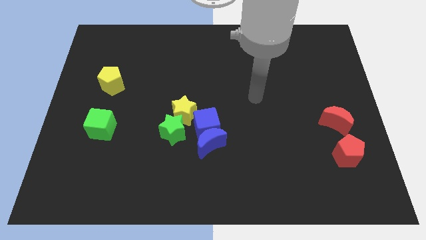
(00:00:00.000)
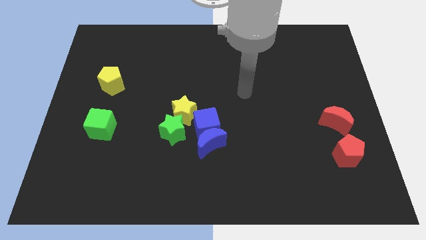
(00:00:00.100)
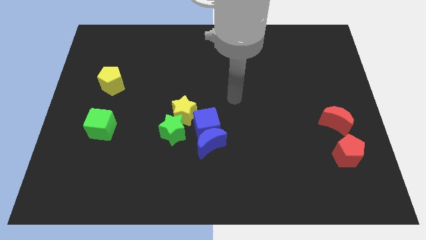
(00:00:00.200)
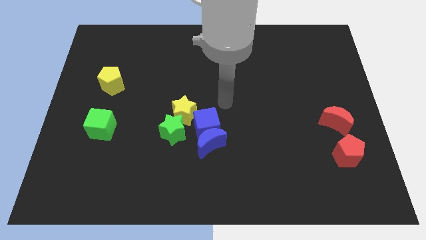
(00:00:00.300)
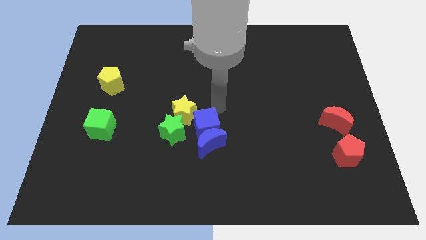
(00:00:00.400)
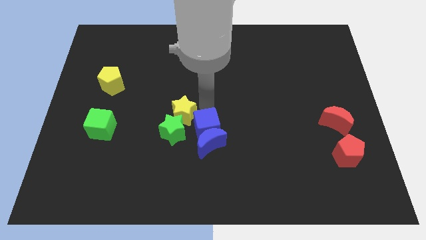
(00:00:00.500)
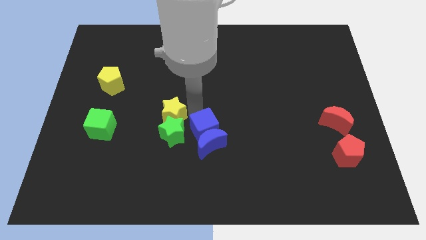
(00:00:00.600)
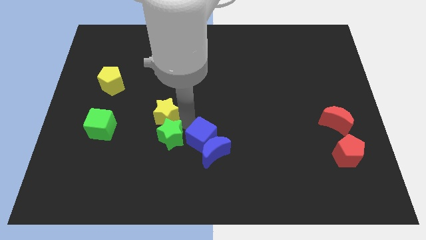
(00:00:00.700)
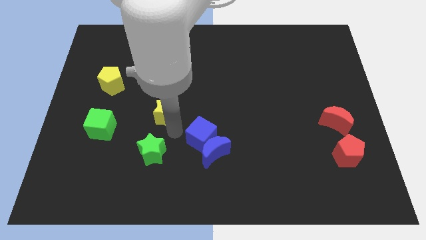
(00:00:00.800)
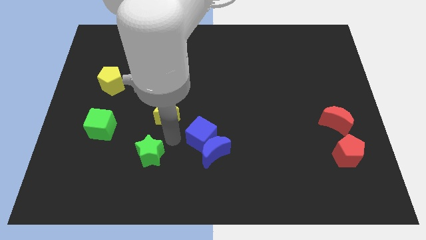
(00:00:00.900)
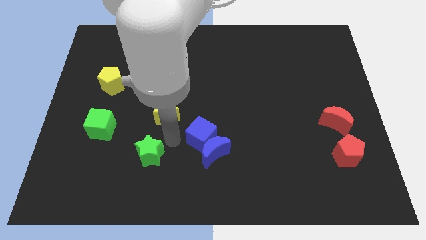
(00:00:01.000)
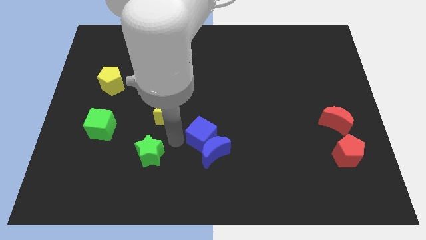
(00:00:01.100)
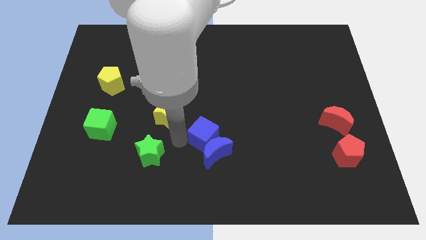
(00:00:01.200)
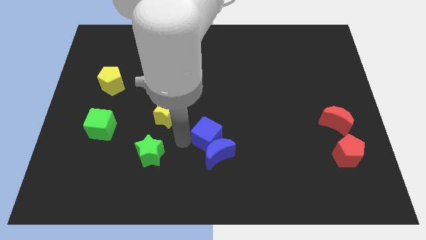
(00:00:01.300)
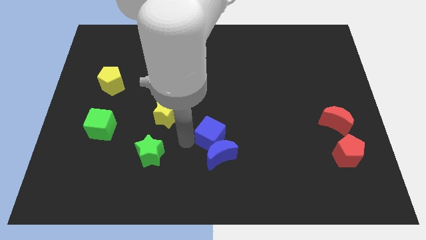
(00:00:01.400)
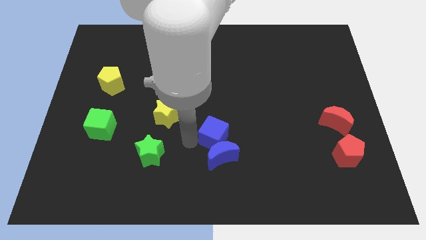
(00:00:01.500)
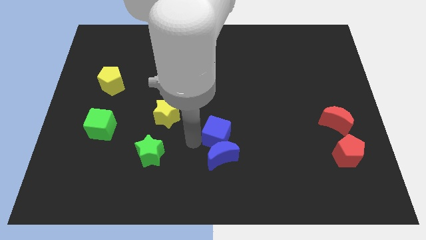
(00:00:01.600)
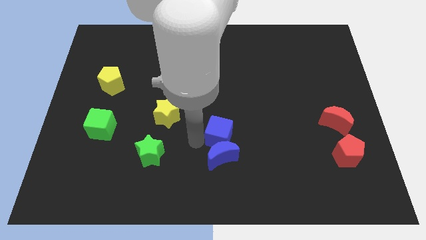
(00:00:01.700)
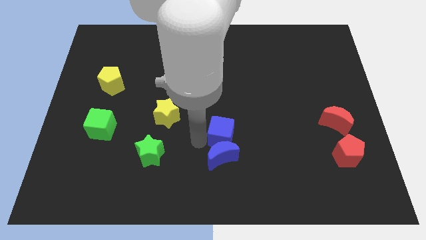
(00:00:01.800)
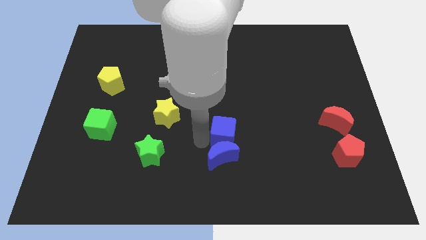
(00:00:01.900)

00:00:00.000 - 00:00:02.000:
pull the blue cube apart from the group

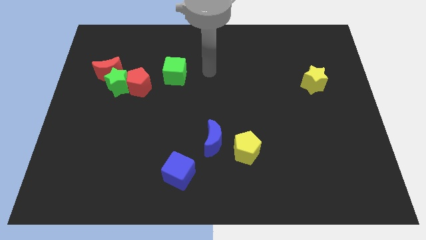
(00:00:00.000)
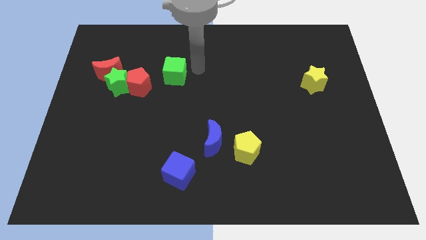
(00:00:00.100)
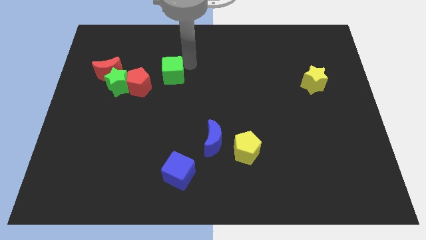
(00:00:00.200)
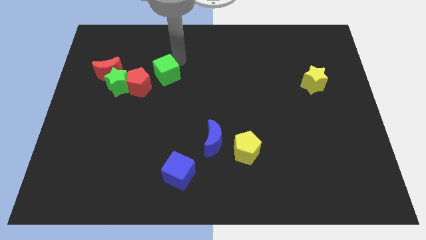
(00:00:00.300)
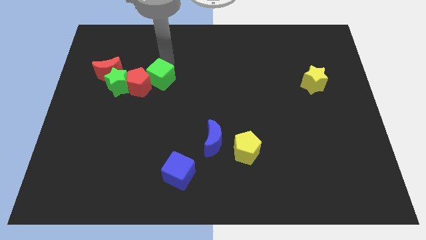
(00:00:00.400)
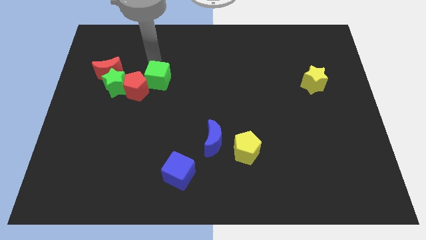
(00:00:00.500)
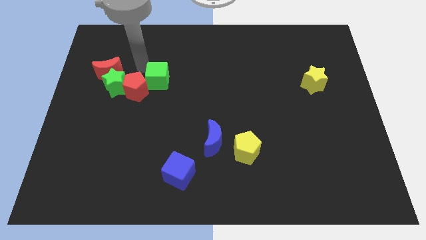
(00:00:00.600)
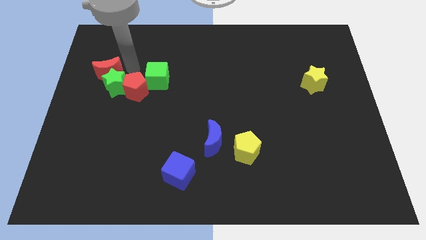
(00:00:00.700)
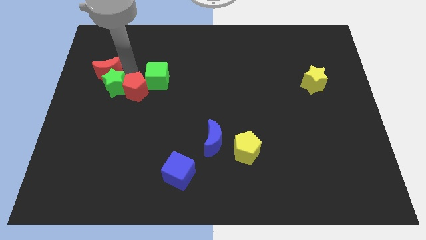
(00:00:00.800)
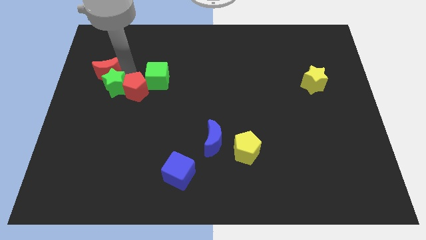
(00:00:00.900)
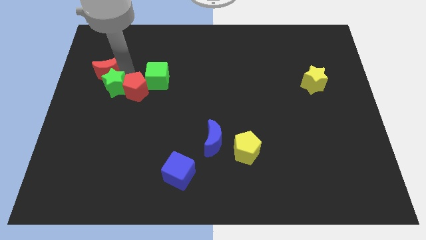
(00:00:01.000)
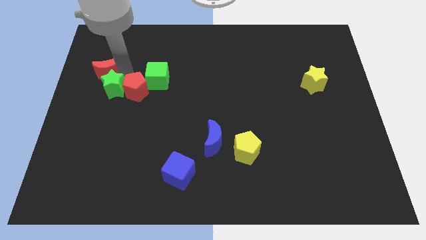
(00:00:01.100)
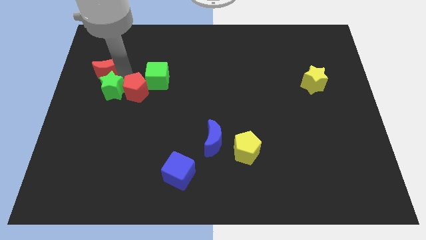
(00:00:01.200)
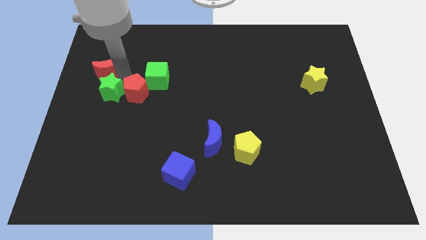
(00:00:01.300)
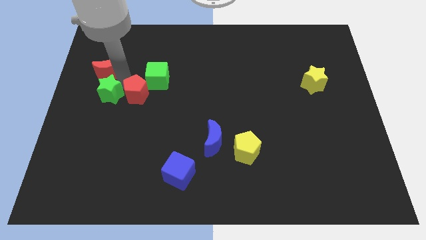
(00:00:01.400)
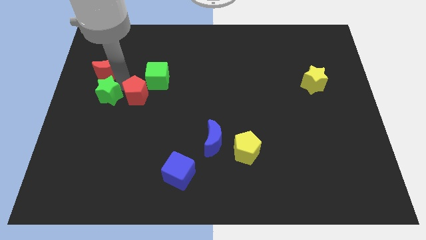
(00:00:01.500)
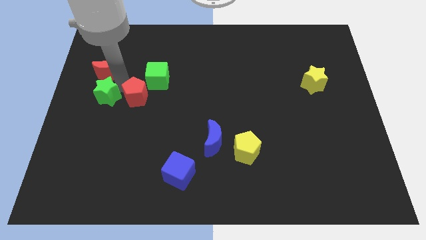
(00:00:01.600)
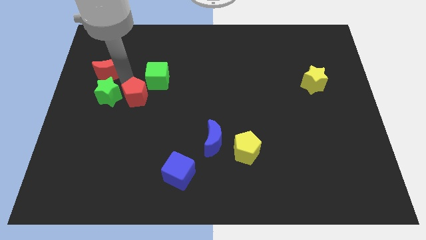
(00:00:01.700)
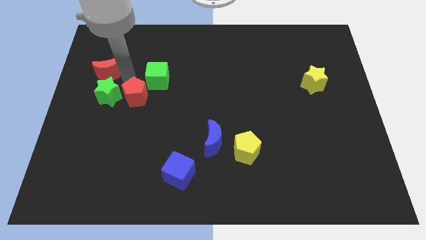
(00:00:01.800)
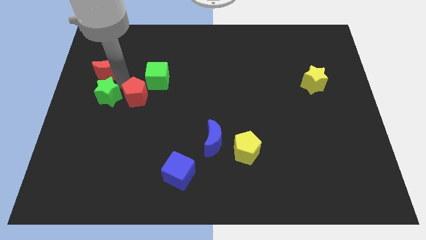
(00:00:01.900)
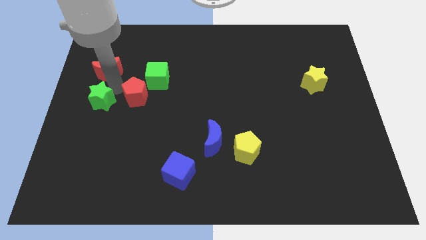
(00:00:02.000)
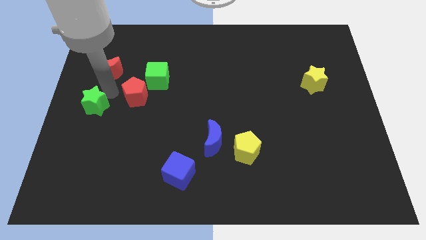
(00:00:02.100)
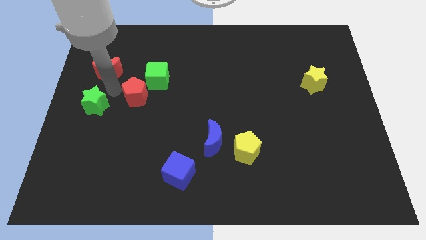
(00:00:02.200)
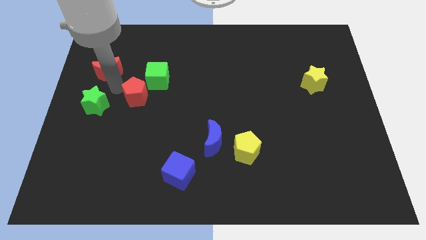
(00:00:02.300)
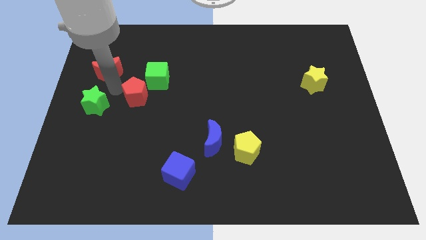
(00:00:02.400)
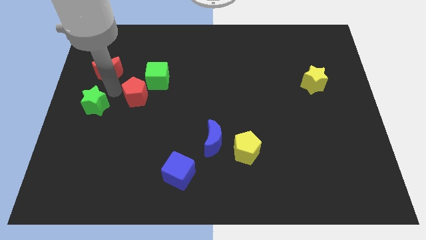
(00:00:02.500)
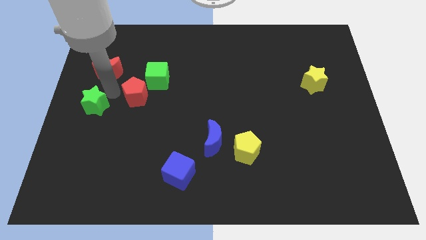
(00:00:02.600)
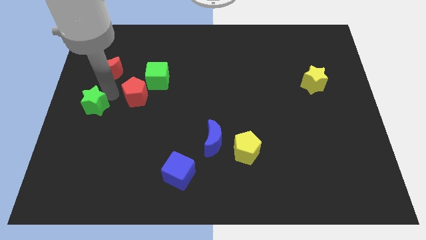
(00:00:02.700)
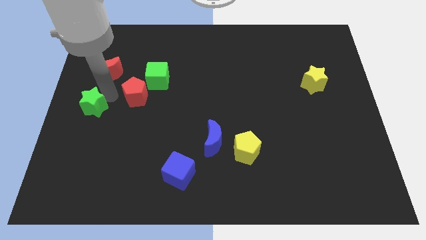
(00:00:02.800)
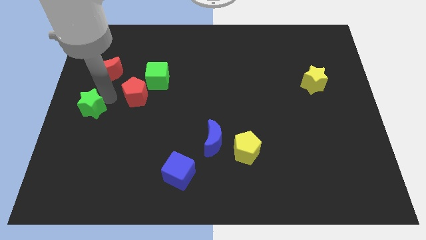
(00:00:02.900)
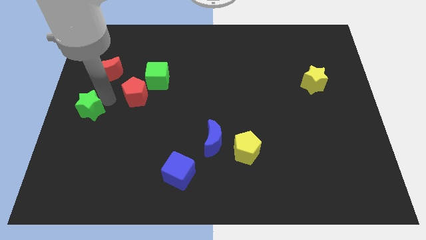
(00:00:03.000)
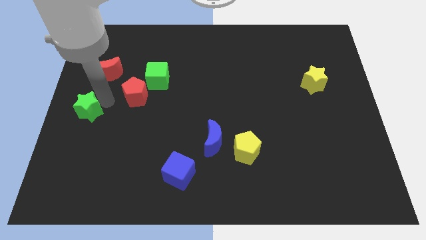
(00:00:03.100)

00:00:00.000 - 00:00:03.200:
pull the green star apart from the red moon and red pentagon

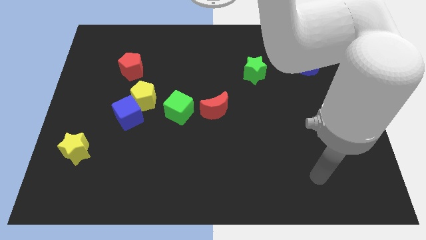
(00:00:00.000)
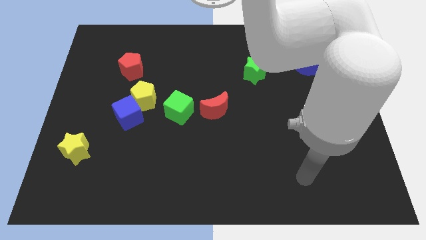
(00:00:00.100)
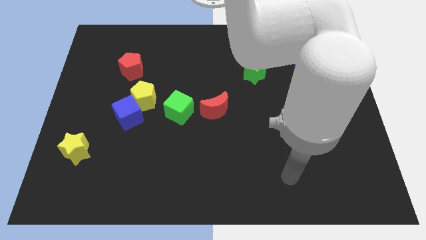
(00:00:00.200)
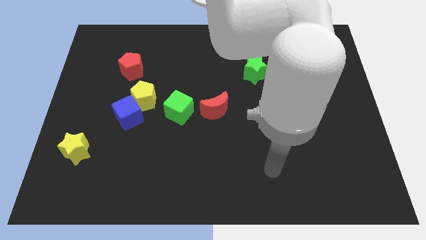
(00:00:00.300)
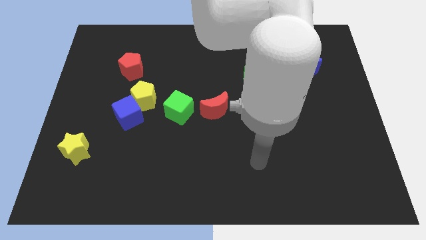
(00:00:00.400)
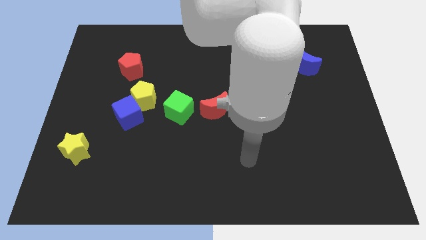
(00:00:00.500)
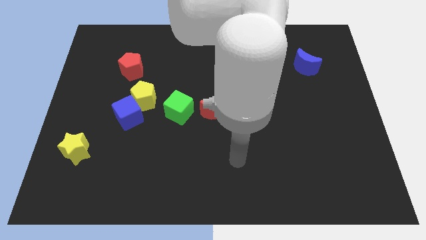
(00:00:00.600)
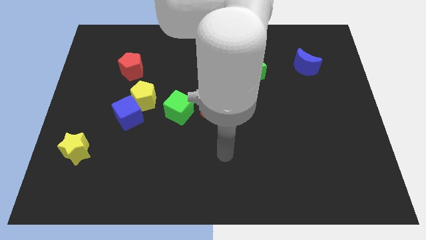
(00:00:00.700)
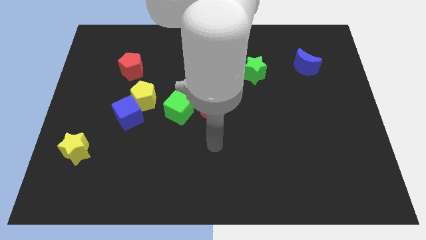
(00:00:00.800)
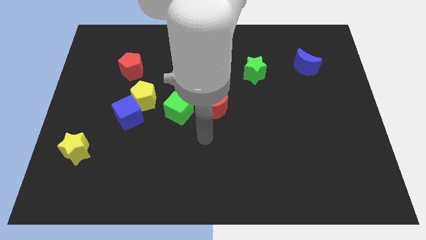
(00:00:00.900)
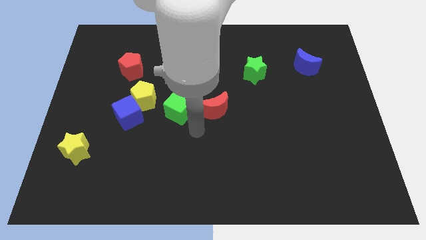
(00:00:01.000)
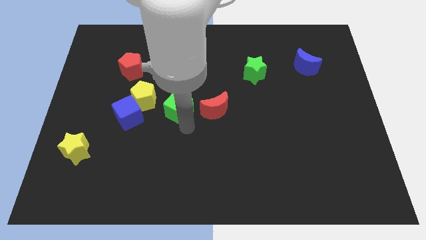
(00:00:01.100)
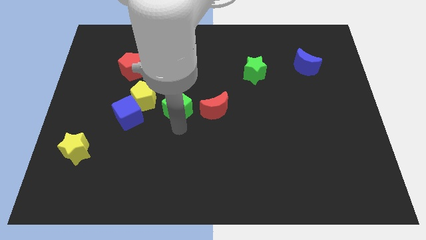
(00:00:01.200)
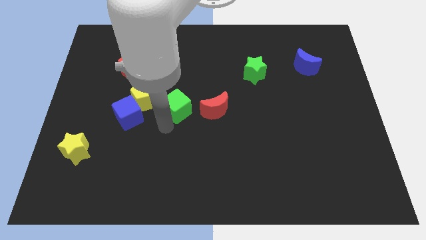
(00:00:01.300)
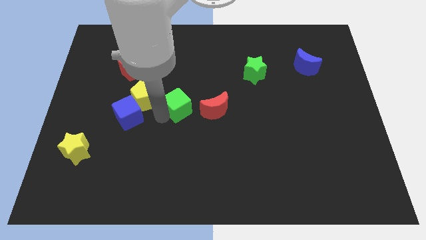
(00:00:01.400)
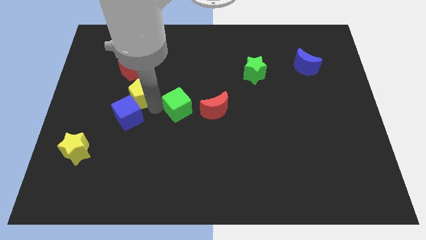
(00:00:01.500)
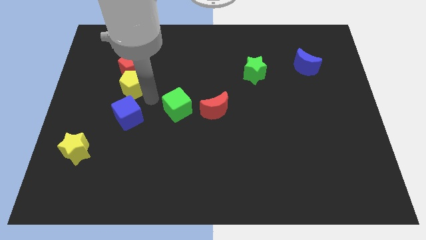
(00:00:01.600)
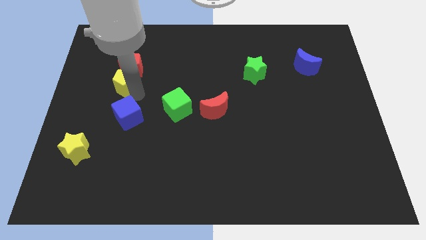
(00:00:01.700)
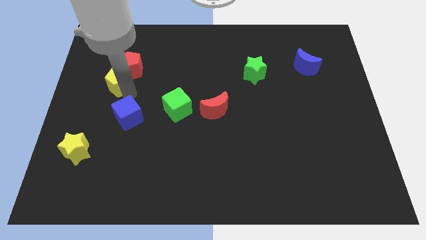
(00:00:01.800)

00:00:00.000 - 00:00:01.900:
move the blue cube away from the yellow pentagon

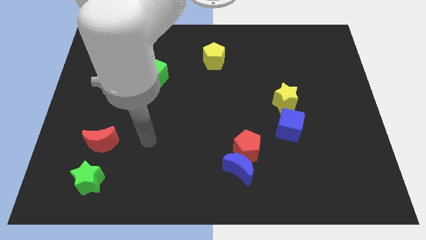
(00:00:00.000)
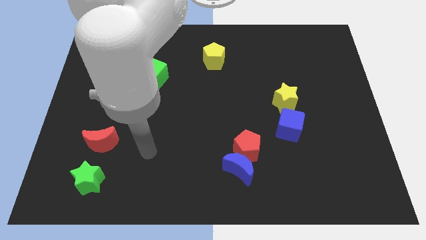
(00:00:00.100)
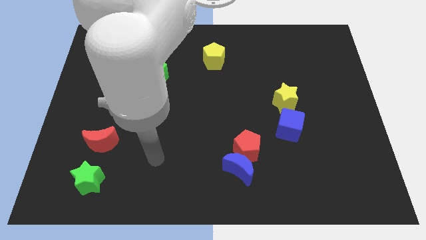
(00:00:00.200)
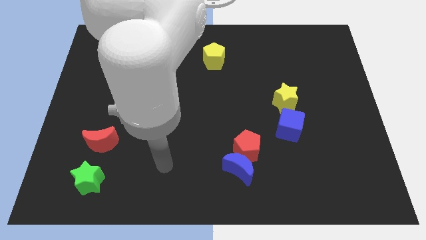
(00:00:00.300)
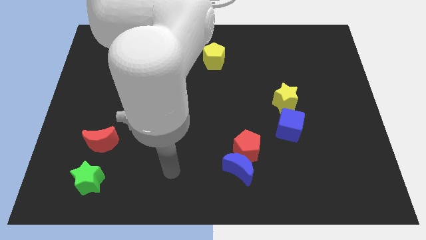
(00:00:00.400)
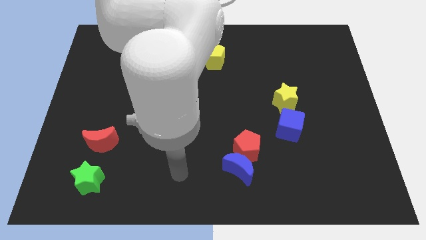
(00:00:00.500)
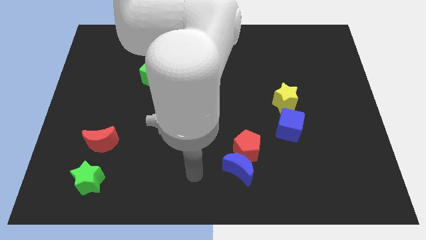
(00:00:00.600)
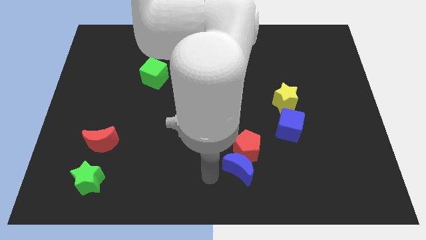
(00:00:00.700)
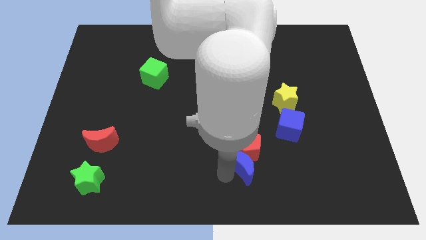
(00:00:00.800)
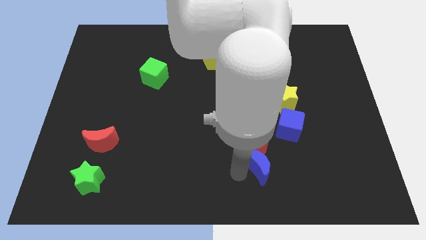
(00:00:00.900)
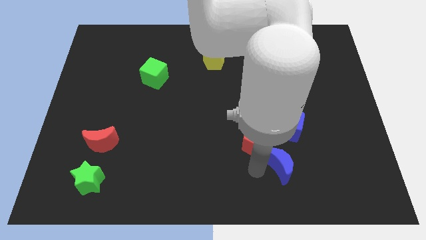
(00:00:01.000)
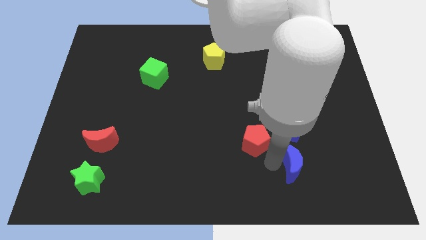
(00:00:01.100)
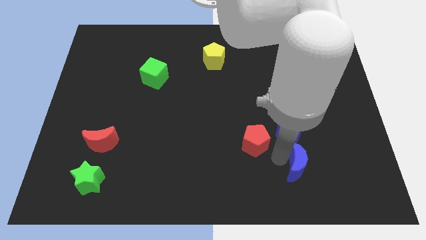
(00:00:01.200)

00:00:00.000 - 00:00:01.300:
separate the red pentagon from the blue moon

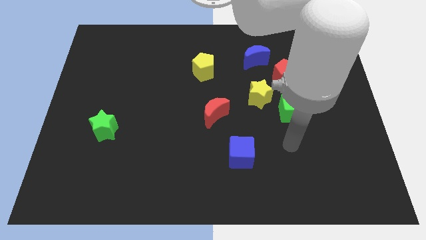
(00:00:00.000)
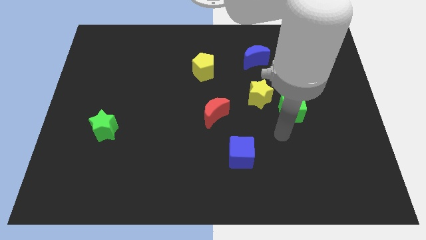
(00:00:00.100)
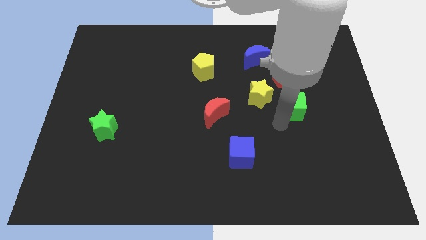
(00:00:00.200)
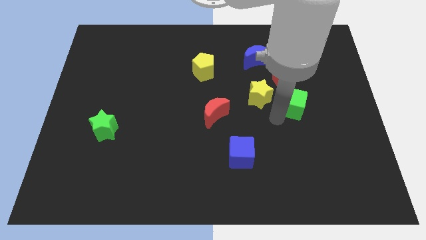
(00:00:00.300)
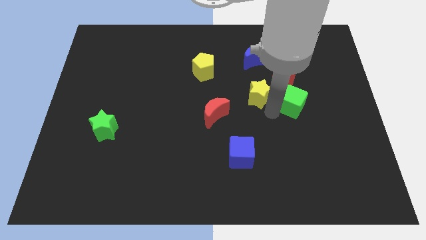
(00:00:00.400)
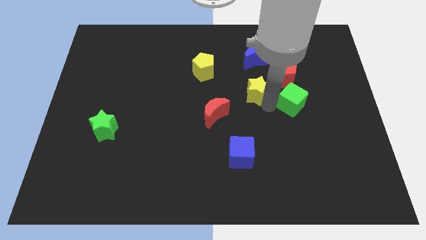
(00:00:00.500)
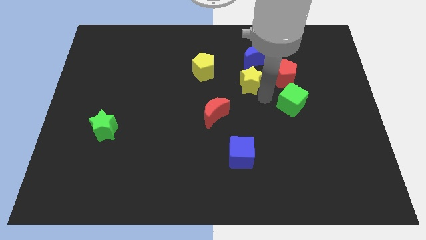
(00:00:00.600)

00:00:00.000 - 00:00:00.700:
separate the green cube from the yellow star
